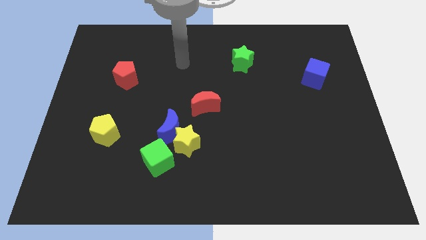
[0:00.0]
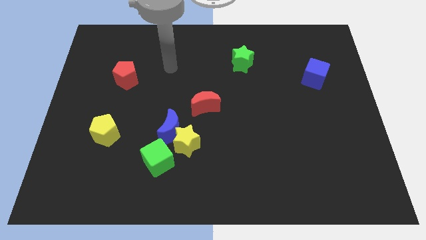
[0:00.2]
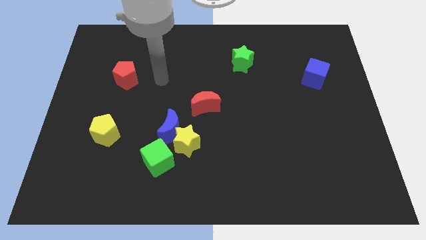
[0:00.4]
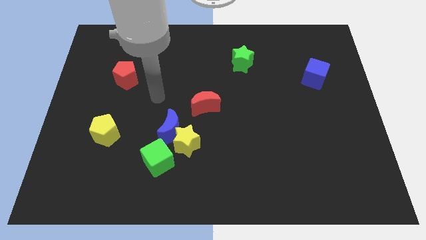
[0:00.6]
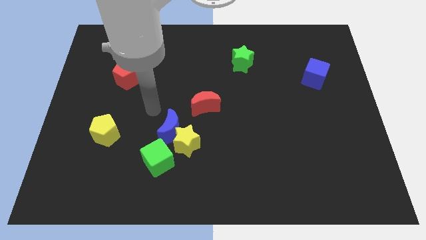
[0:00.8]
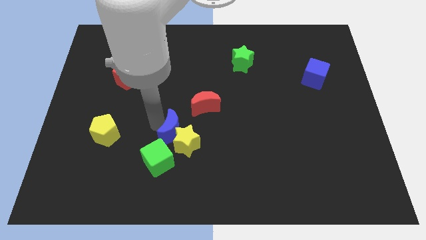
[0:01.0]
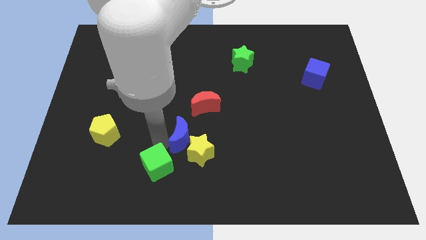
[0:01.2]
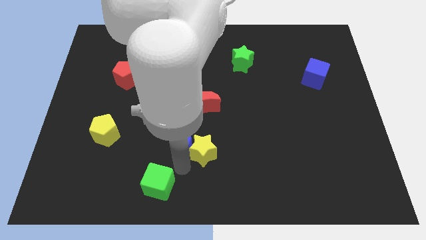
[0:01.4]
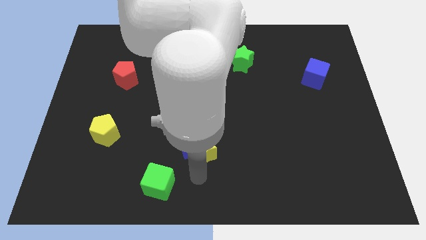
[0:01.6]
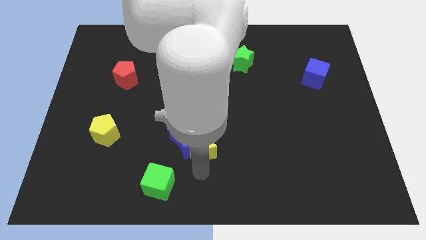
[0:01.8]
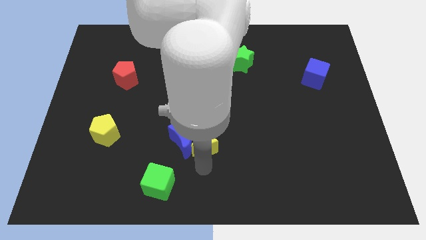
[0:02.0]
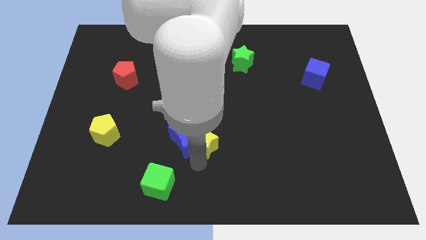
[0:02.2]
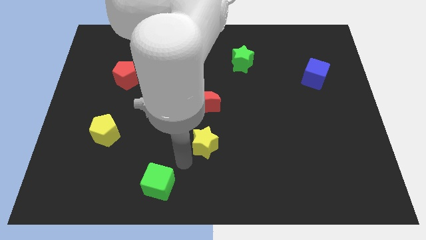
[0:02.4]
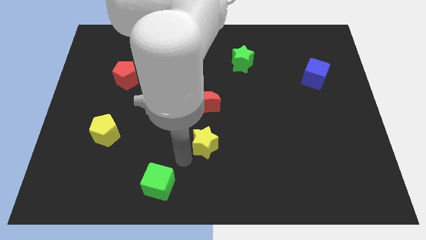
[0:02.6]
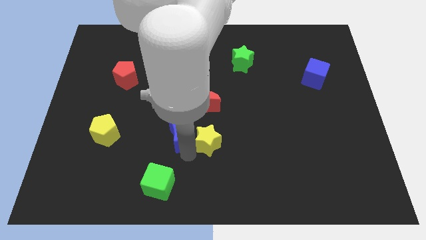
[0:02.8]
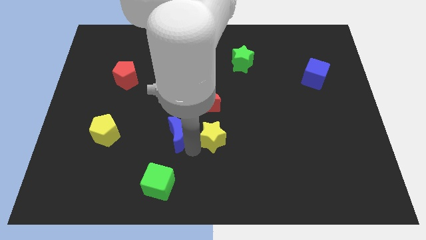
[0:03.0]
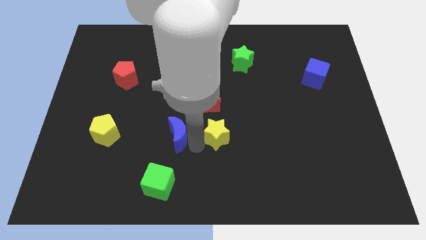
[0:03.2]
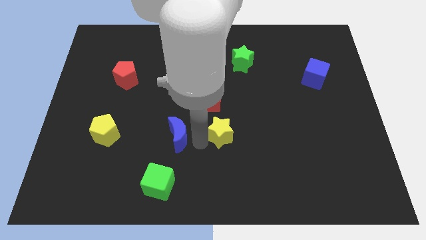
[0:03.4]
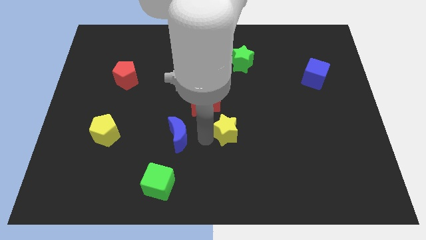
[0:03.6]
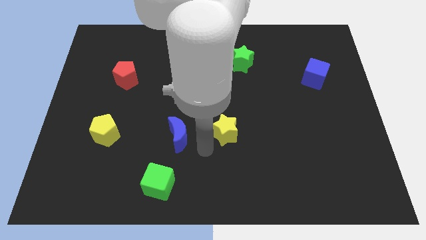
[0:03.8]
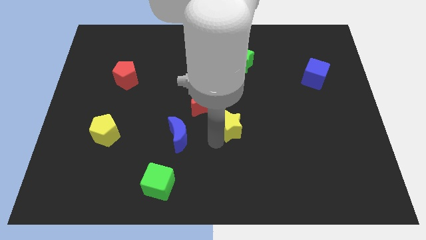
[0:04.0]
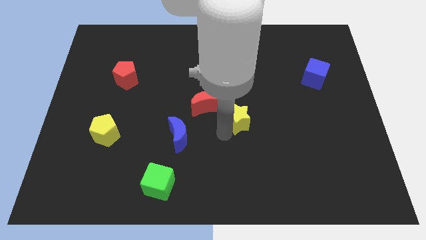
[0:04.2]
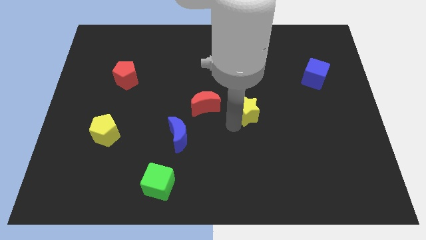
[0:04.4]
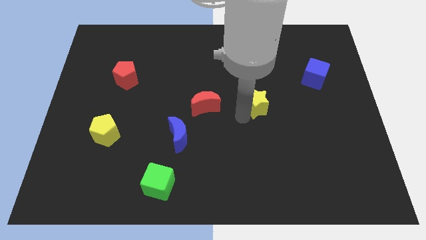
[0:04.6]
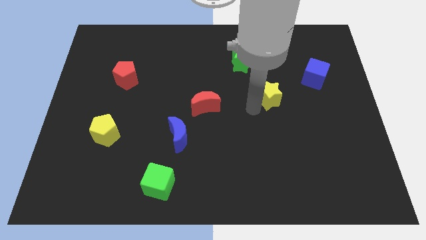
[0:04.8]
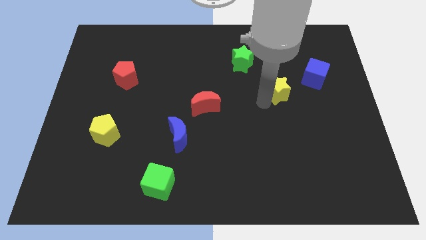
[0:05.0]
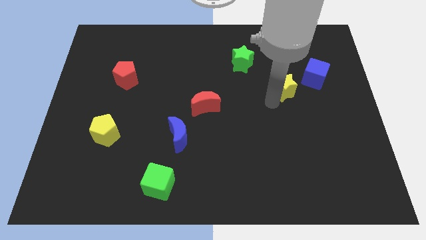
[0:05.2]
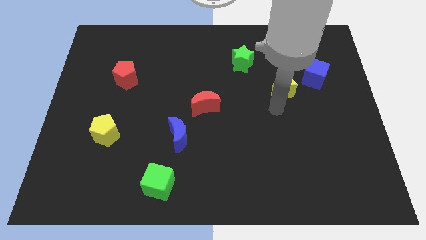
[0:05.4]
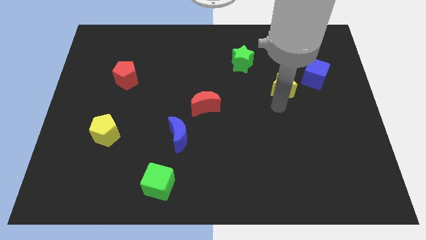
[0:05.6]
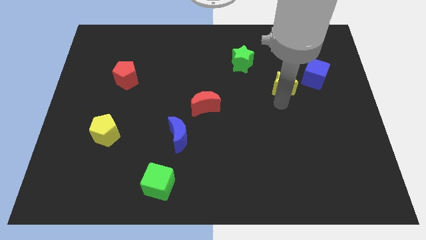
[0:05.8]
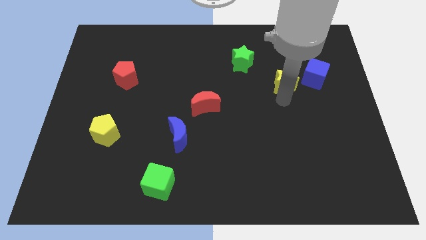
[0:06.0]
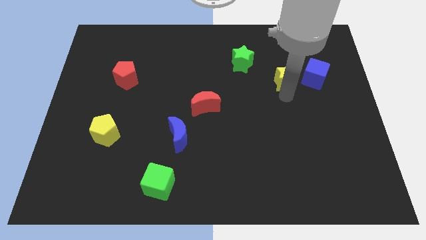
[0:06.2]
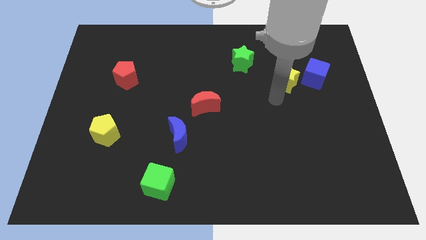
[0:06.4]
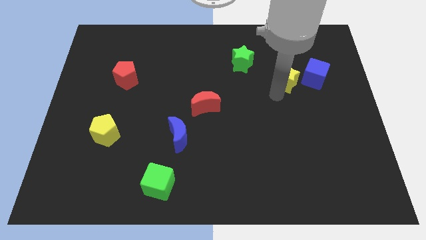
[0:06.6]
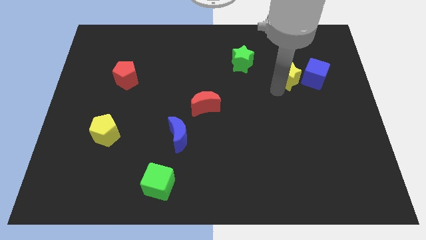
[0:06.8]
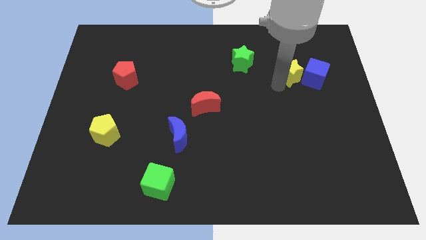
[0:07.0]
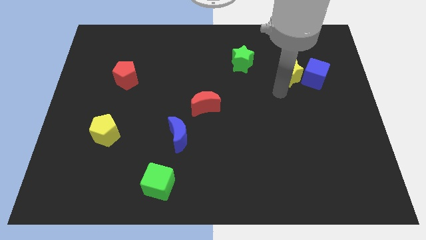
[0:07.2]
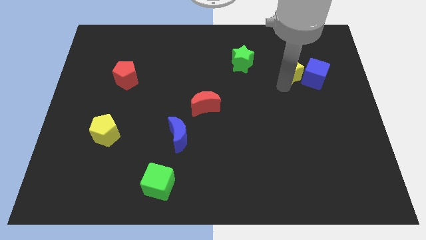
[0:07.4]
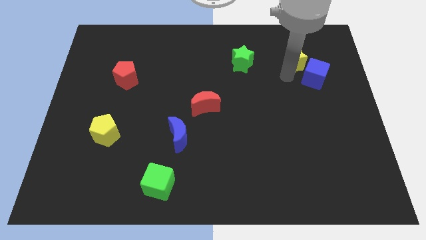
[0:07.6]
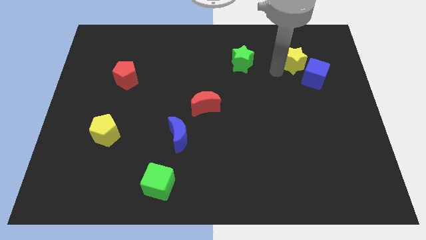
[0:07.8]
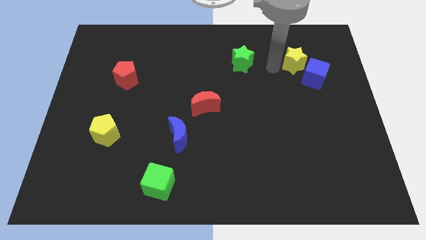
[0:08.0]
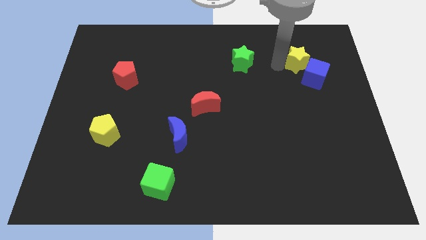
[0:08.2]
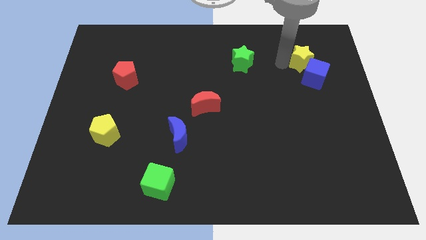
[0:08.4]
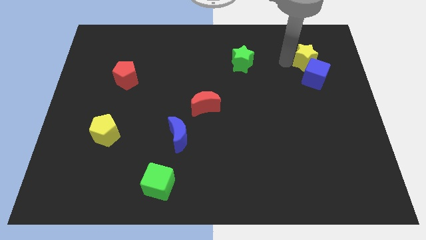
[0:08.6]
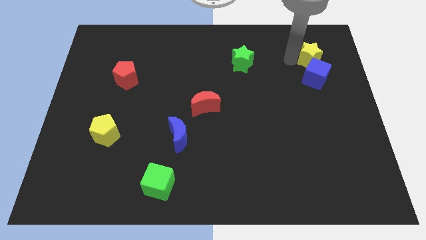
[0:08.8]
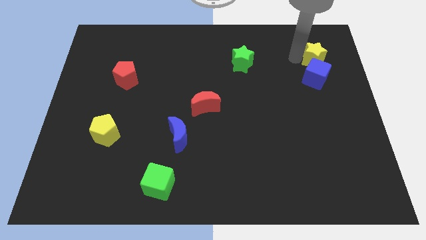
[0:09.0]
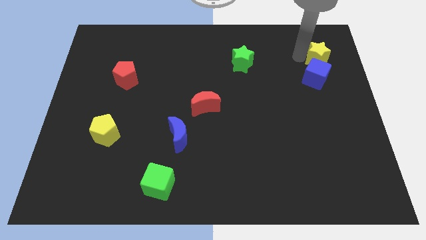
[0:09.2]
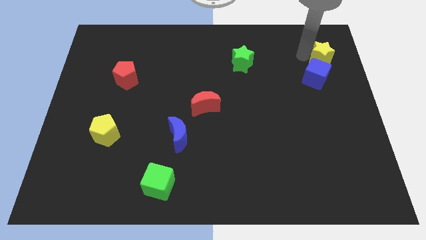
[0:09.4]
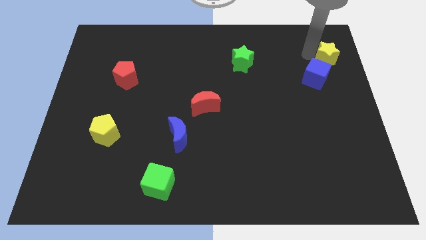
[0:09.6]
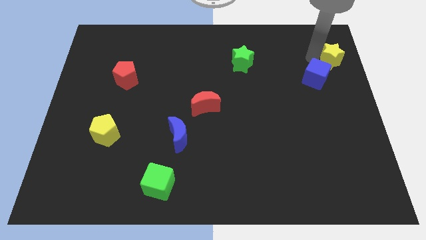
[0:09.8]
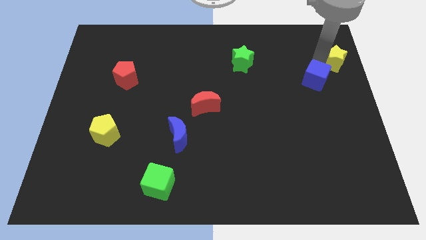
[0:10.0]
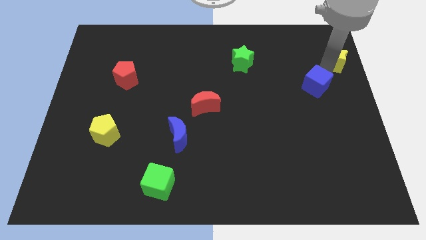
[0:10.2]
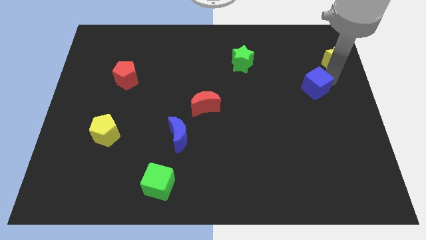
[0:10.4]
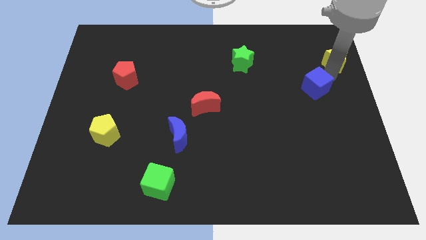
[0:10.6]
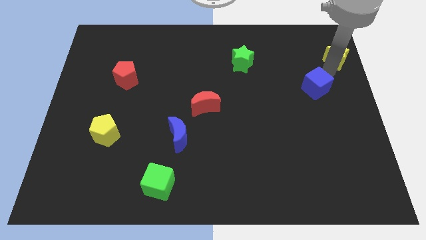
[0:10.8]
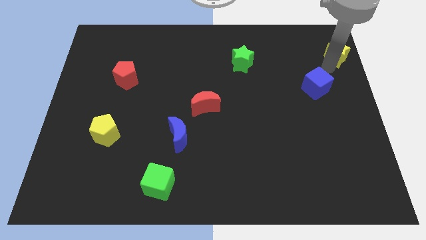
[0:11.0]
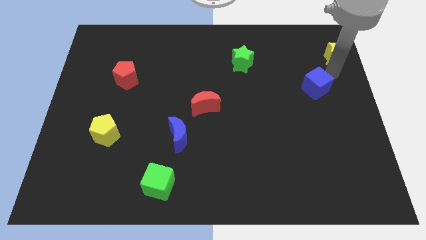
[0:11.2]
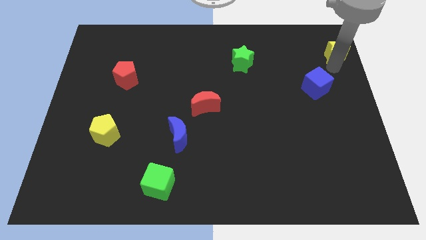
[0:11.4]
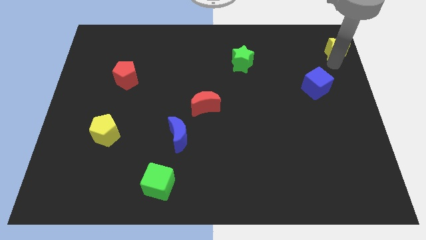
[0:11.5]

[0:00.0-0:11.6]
put the yellow star to the upper right corner
